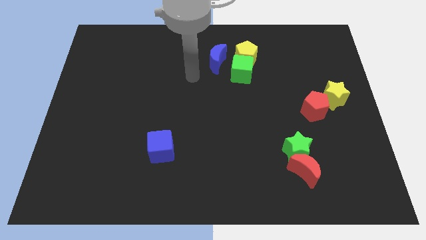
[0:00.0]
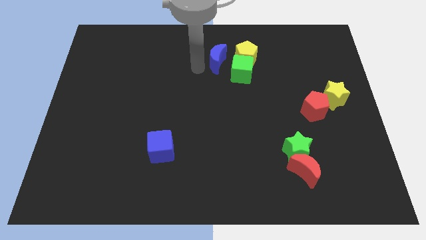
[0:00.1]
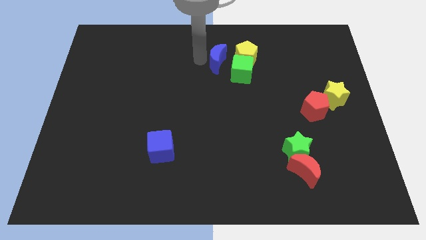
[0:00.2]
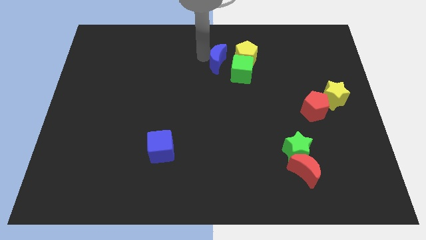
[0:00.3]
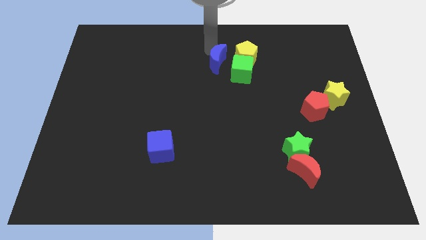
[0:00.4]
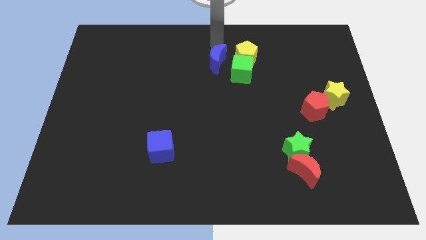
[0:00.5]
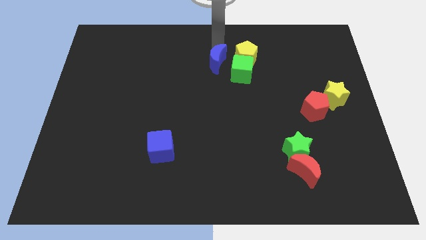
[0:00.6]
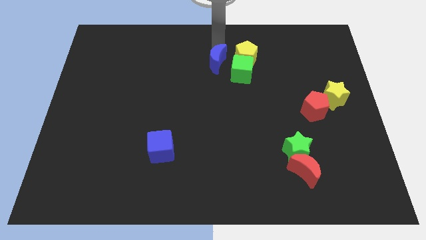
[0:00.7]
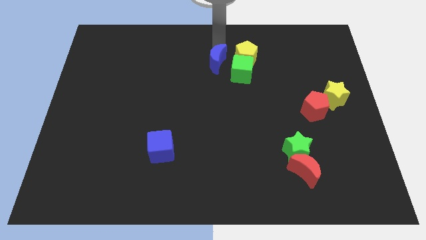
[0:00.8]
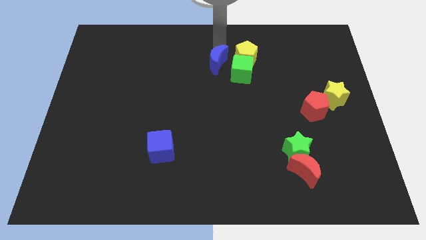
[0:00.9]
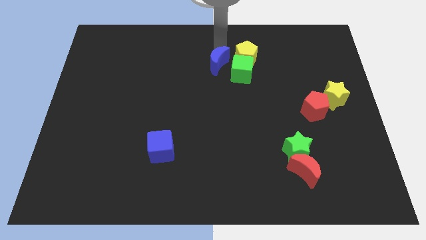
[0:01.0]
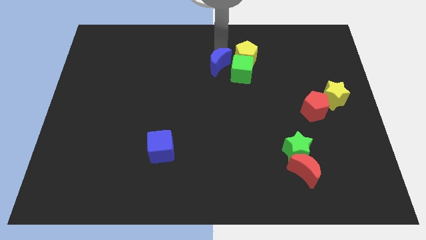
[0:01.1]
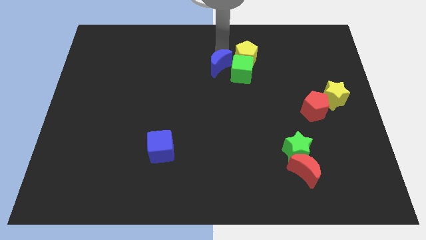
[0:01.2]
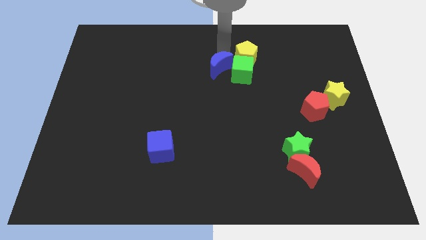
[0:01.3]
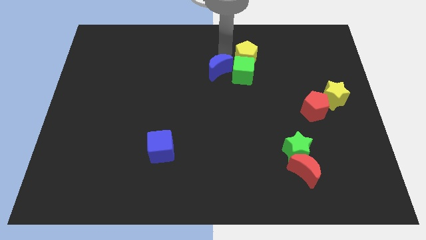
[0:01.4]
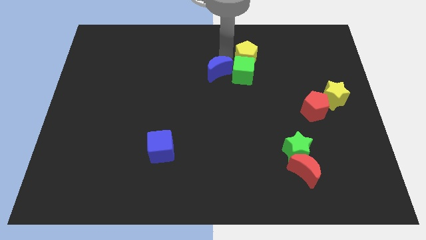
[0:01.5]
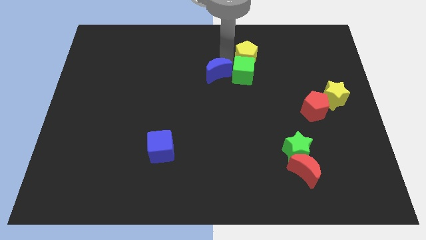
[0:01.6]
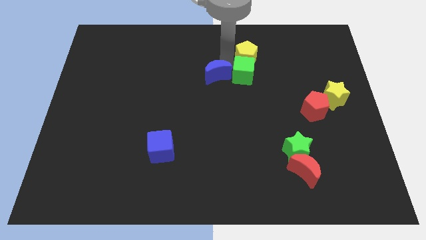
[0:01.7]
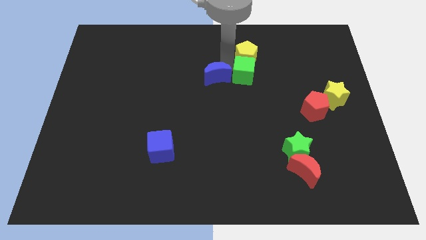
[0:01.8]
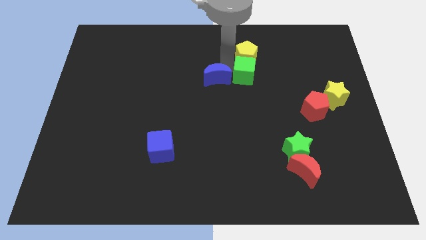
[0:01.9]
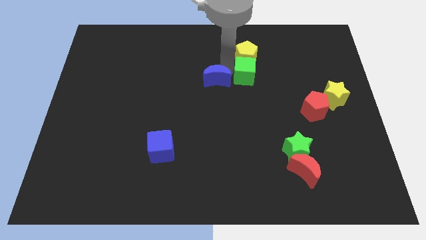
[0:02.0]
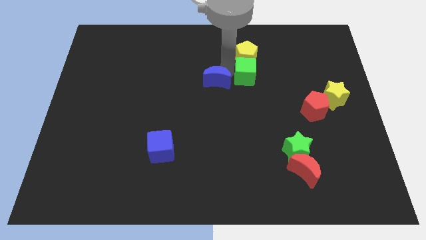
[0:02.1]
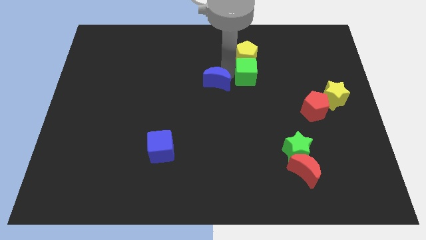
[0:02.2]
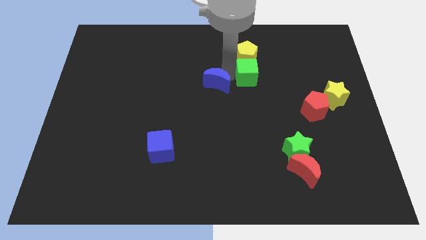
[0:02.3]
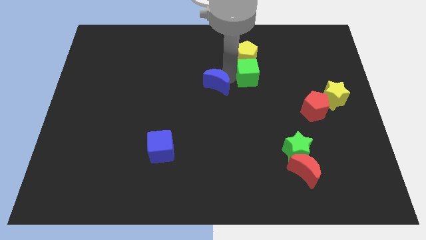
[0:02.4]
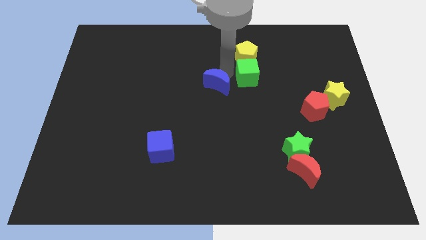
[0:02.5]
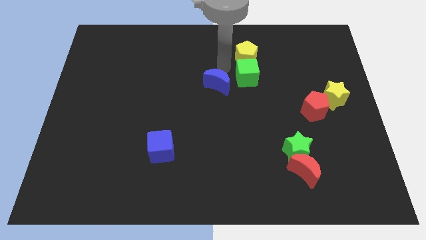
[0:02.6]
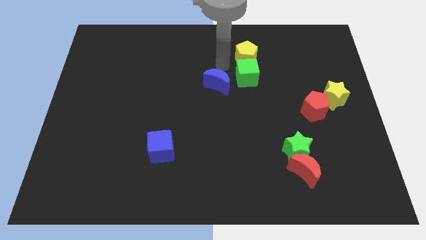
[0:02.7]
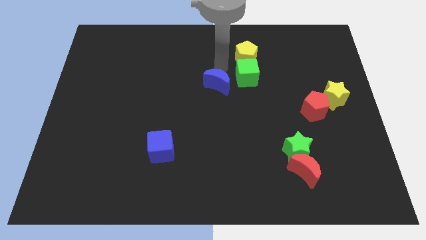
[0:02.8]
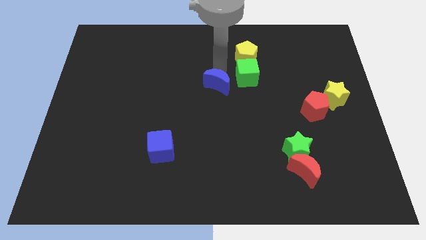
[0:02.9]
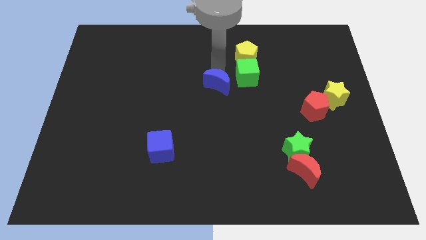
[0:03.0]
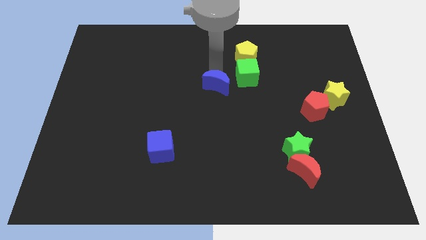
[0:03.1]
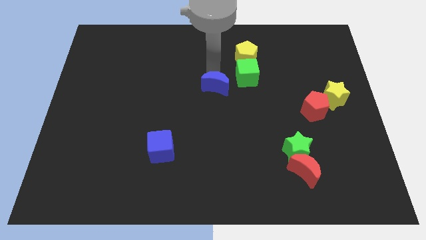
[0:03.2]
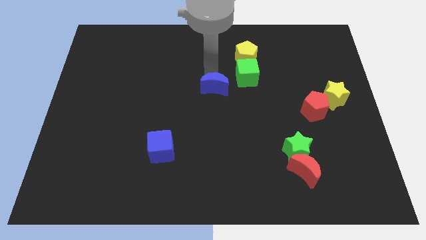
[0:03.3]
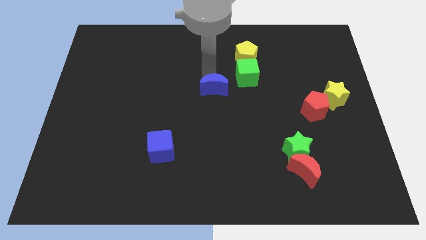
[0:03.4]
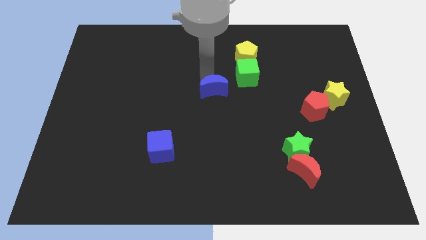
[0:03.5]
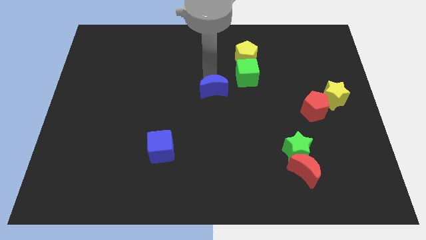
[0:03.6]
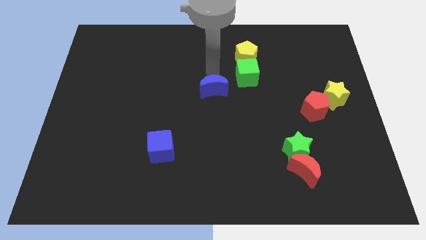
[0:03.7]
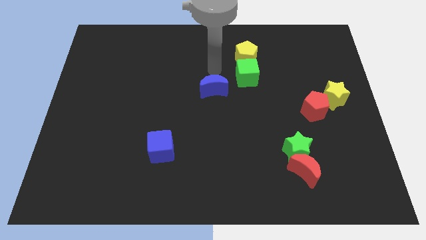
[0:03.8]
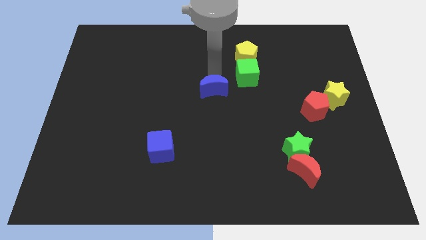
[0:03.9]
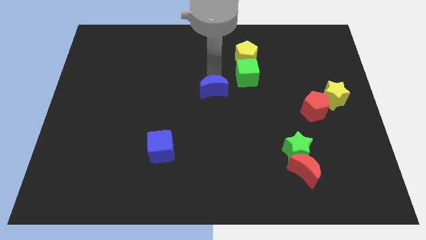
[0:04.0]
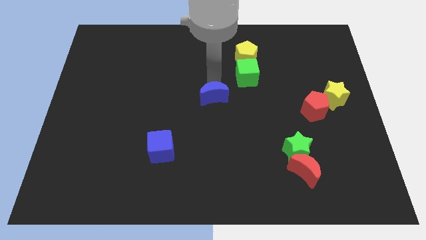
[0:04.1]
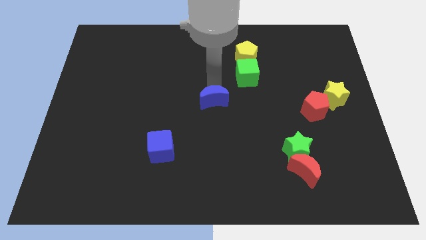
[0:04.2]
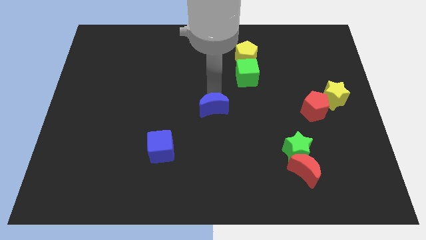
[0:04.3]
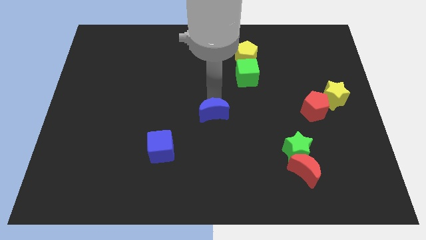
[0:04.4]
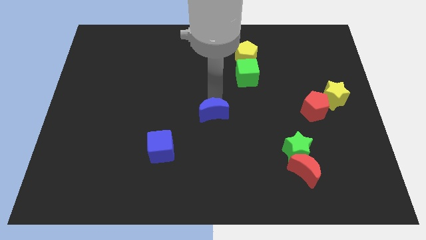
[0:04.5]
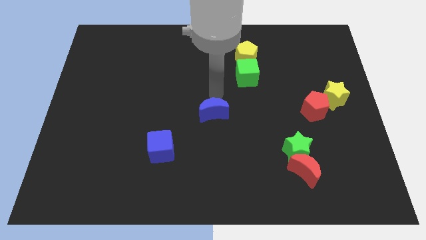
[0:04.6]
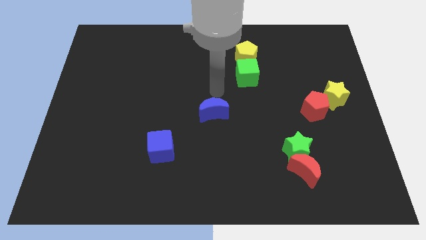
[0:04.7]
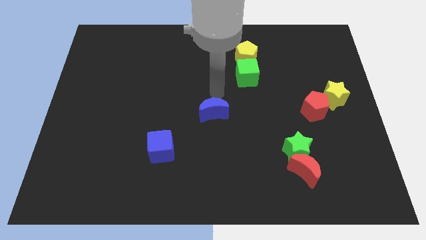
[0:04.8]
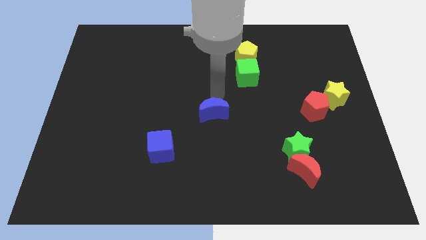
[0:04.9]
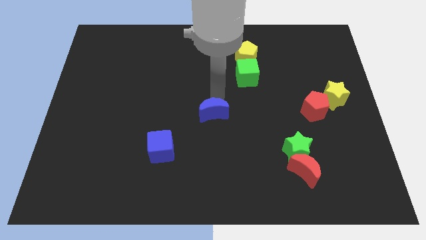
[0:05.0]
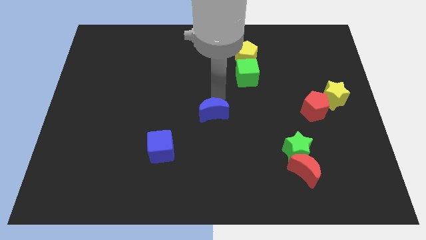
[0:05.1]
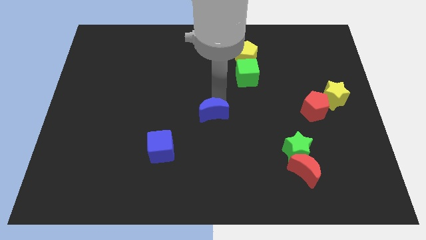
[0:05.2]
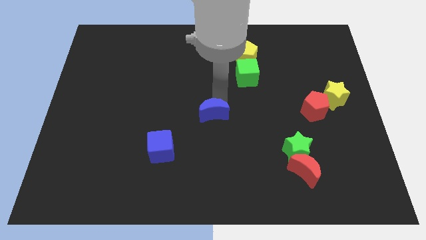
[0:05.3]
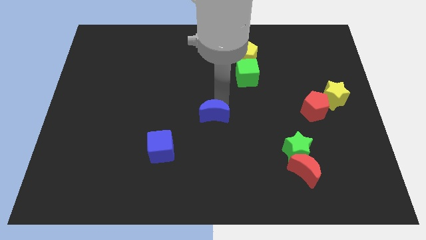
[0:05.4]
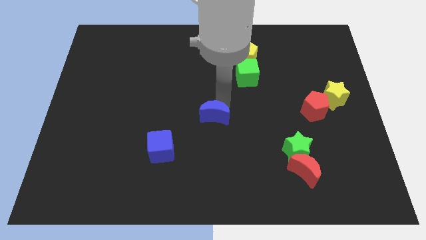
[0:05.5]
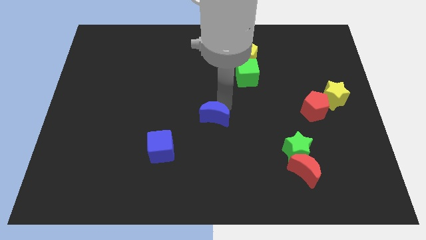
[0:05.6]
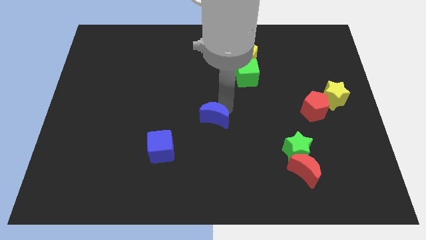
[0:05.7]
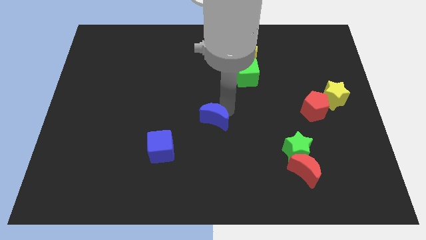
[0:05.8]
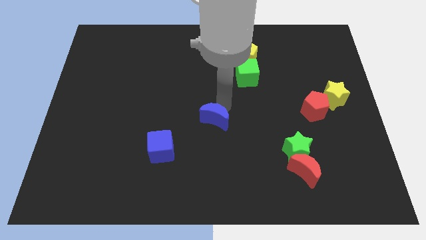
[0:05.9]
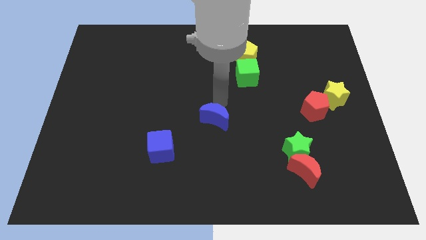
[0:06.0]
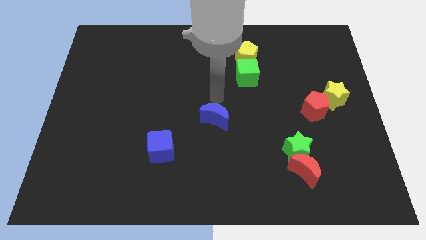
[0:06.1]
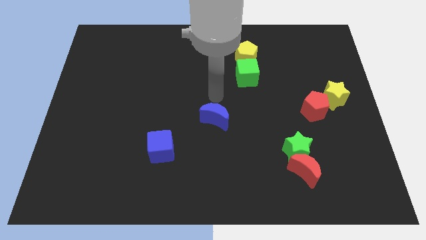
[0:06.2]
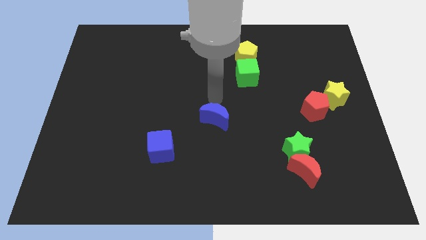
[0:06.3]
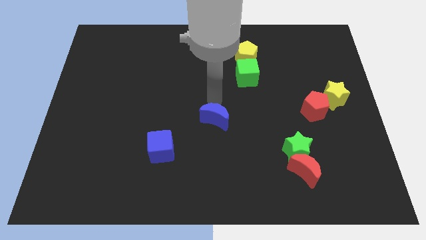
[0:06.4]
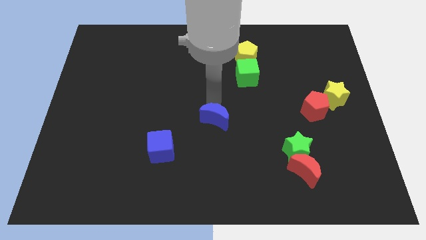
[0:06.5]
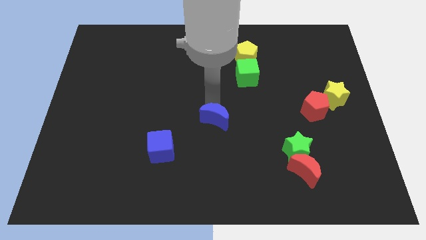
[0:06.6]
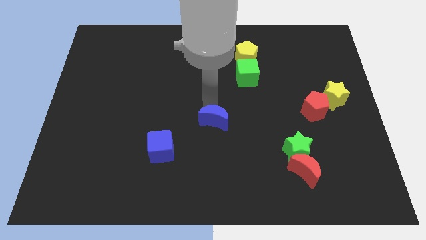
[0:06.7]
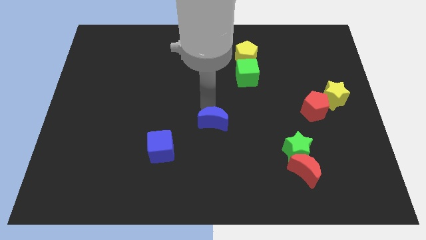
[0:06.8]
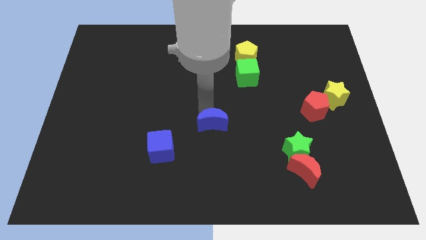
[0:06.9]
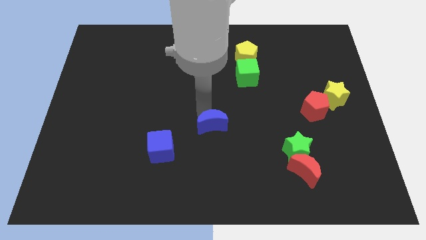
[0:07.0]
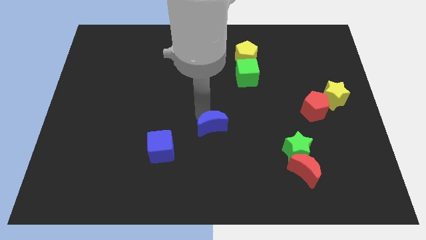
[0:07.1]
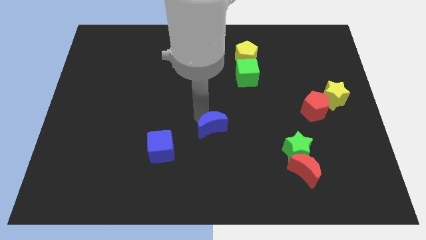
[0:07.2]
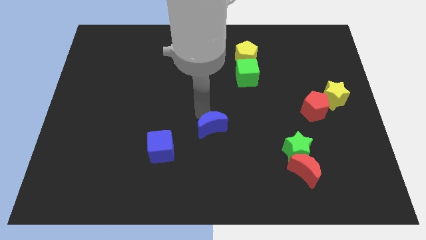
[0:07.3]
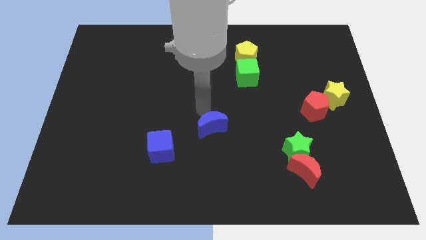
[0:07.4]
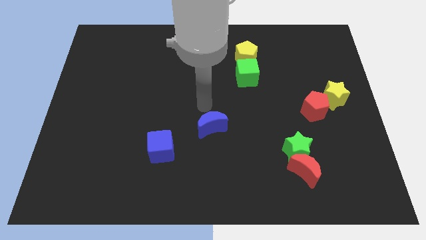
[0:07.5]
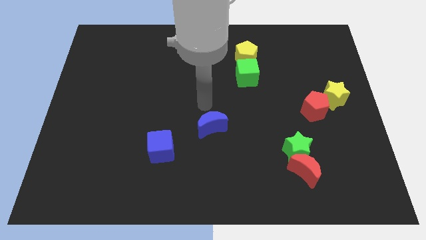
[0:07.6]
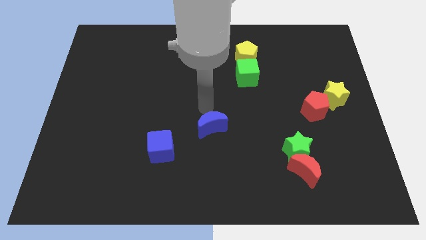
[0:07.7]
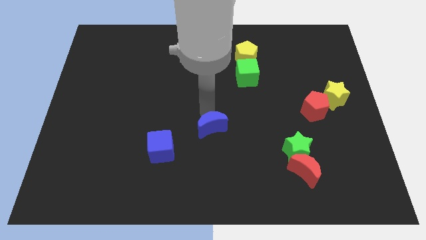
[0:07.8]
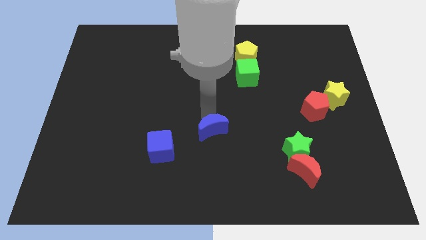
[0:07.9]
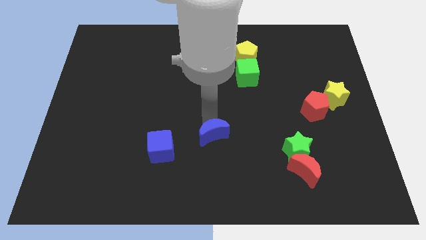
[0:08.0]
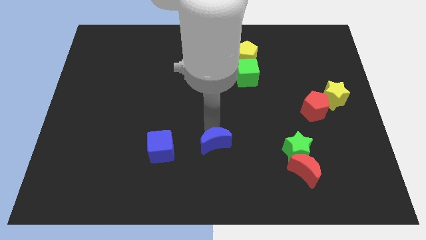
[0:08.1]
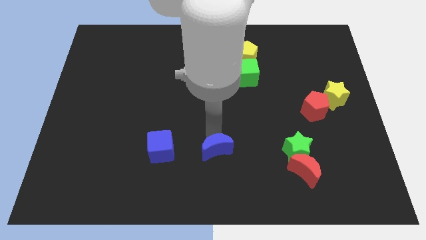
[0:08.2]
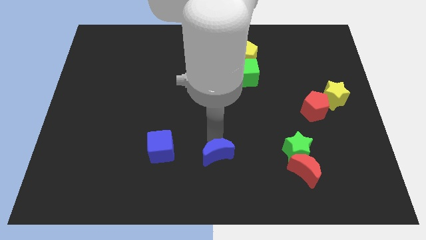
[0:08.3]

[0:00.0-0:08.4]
move the blue moon to the bottom
